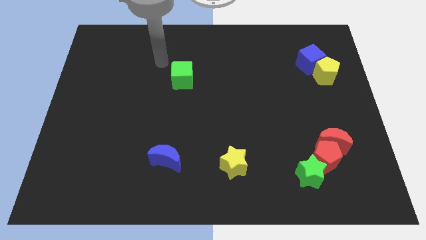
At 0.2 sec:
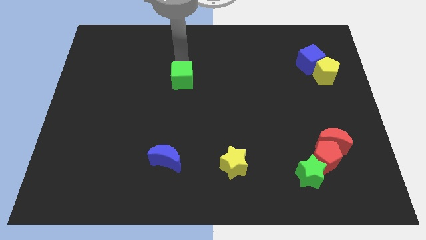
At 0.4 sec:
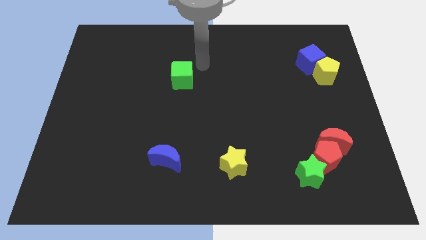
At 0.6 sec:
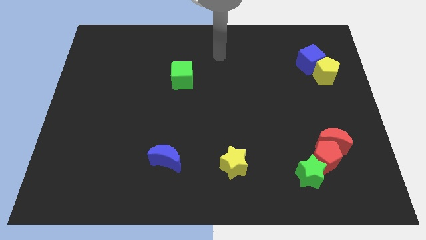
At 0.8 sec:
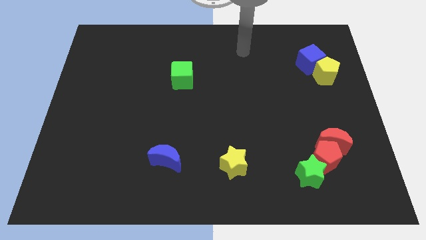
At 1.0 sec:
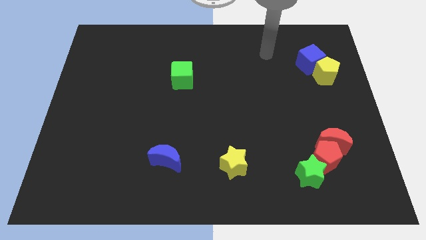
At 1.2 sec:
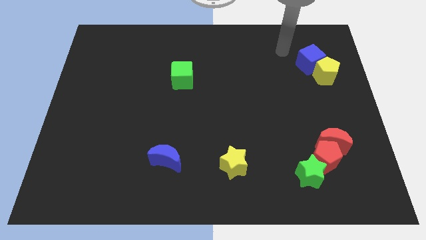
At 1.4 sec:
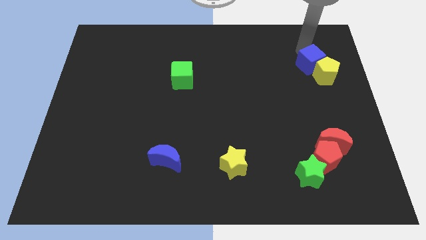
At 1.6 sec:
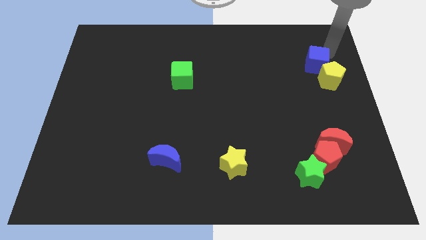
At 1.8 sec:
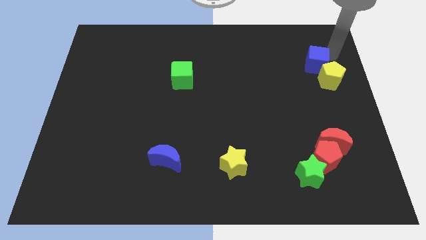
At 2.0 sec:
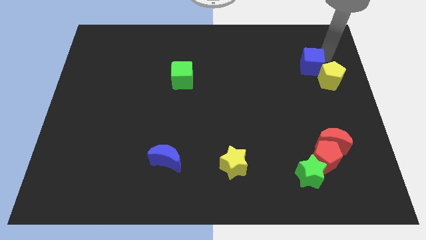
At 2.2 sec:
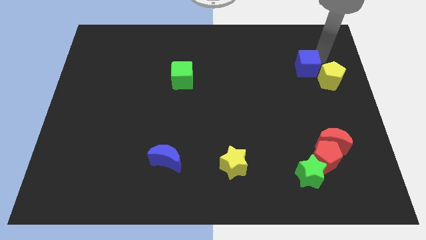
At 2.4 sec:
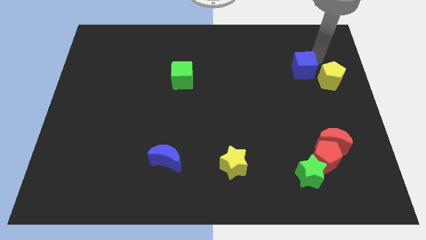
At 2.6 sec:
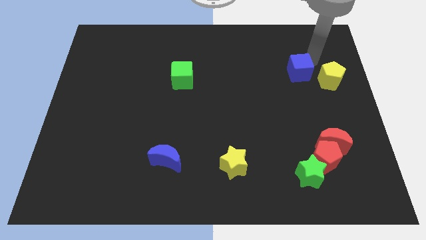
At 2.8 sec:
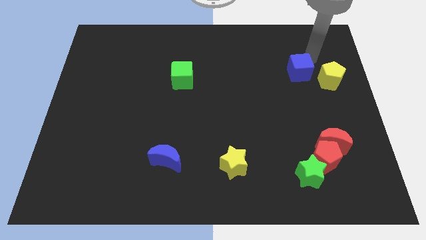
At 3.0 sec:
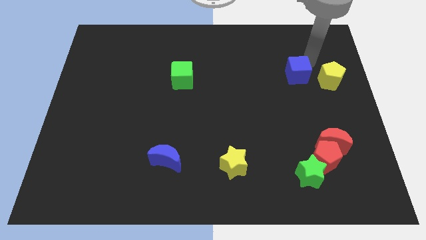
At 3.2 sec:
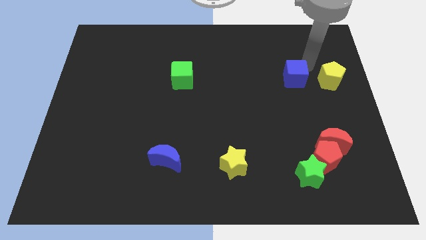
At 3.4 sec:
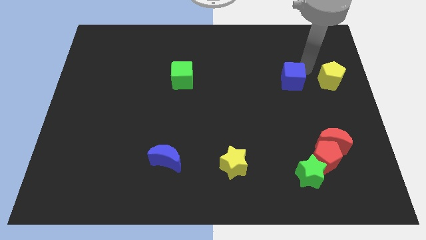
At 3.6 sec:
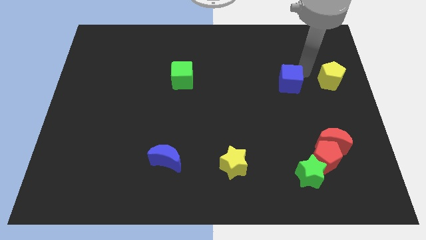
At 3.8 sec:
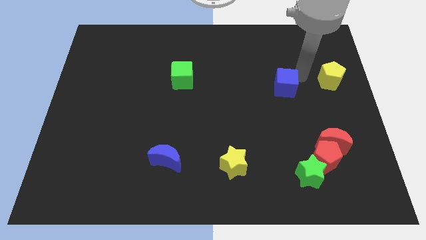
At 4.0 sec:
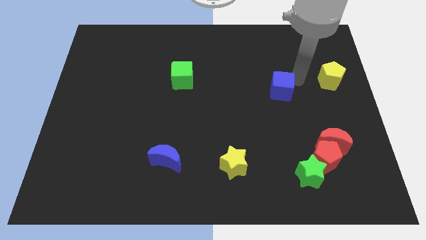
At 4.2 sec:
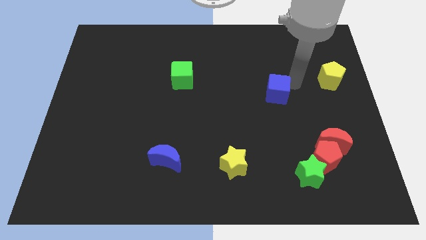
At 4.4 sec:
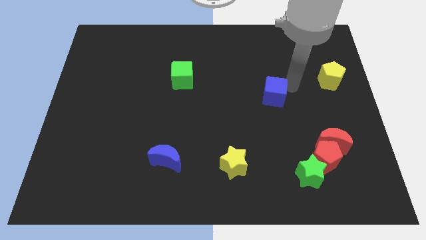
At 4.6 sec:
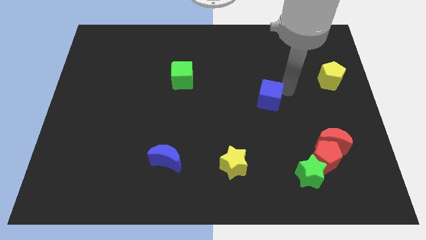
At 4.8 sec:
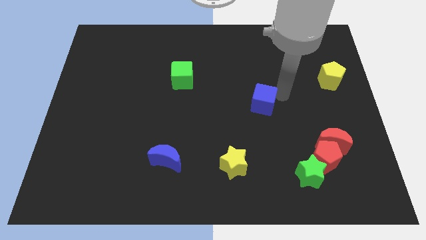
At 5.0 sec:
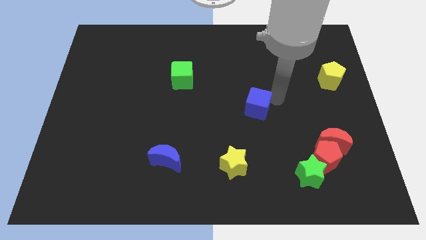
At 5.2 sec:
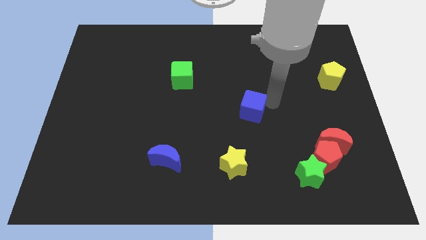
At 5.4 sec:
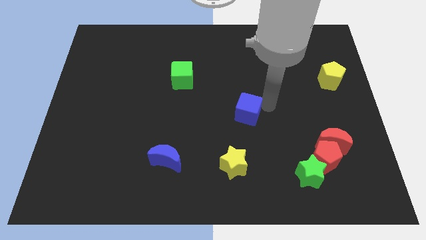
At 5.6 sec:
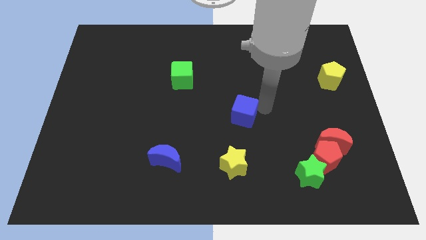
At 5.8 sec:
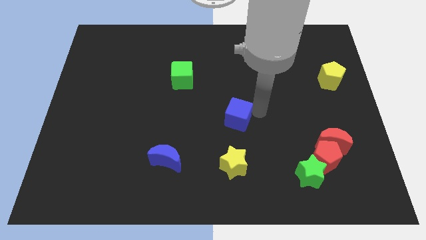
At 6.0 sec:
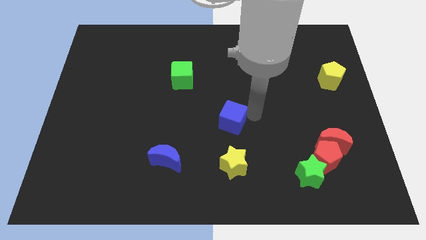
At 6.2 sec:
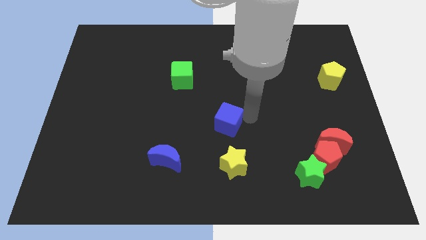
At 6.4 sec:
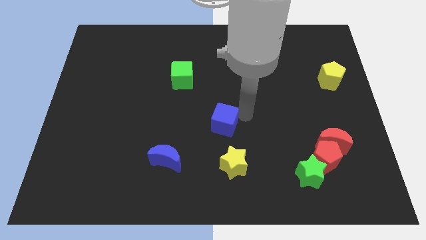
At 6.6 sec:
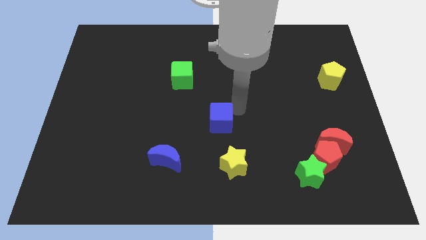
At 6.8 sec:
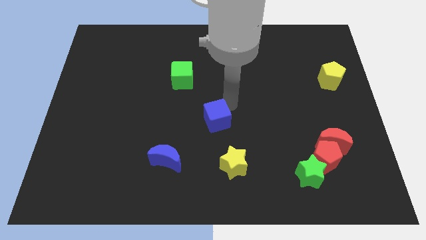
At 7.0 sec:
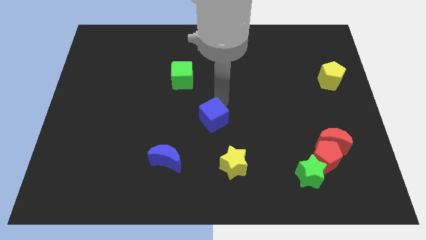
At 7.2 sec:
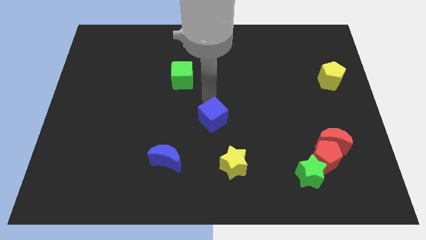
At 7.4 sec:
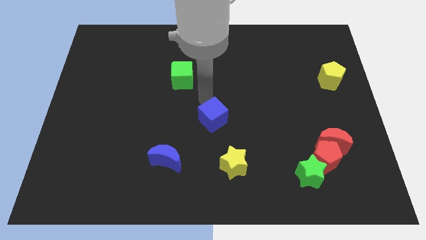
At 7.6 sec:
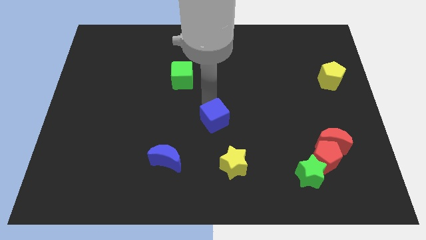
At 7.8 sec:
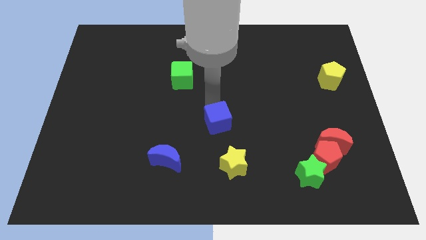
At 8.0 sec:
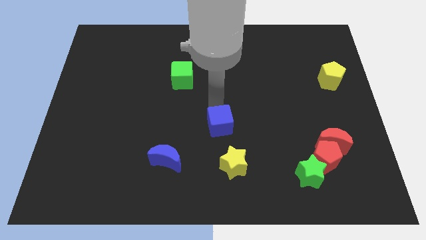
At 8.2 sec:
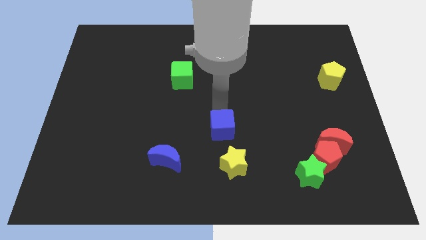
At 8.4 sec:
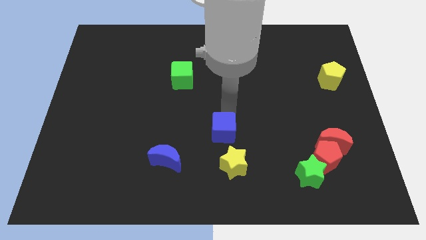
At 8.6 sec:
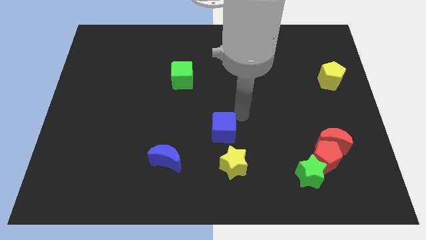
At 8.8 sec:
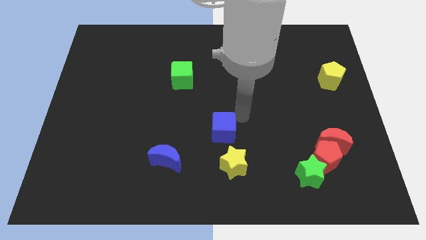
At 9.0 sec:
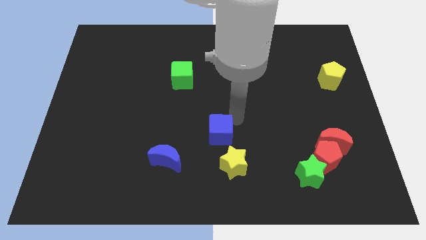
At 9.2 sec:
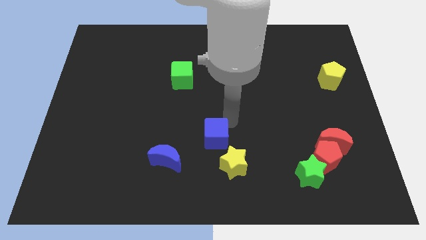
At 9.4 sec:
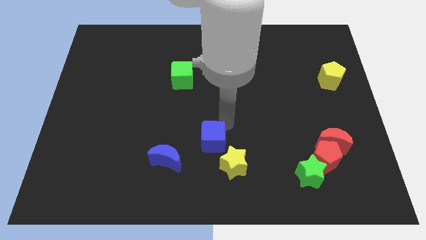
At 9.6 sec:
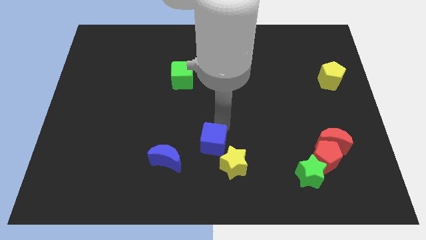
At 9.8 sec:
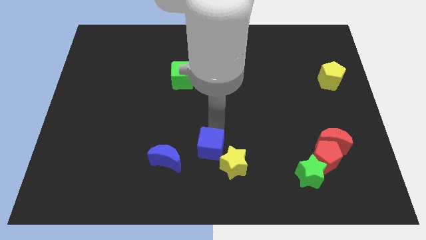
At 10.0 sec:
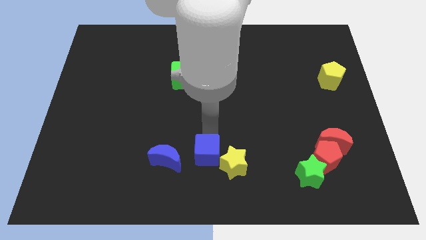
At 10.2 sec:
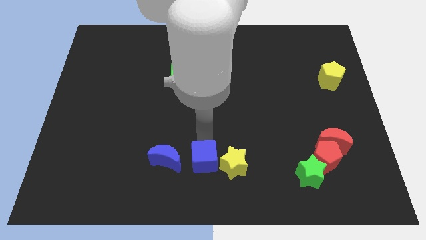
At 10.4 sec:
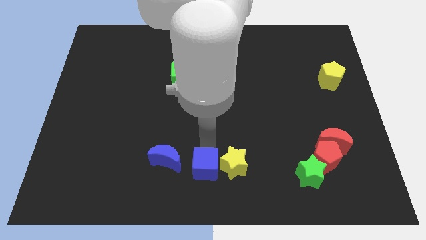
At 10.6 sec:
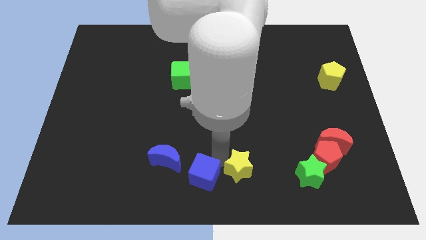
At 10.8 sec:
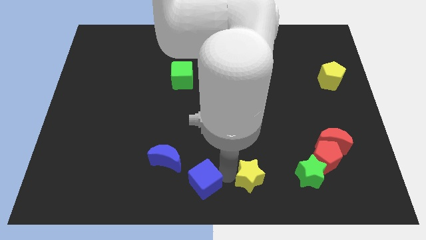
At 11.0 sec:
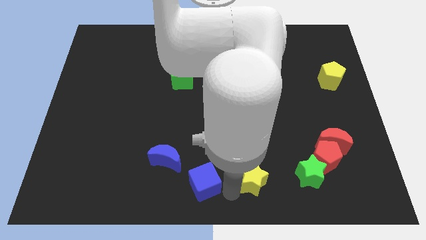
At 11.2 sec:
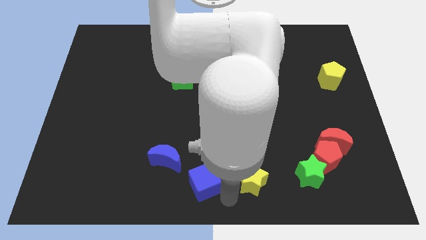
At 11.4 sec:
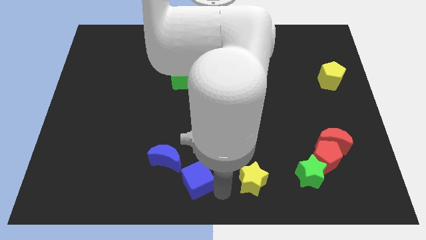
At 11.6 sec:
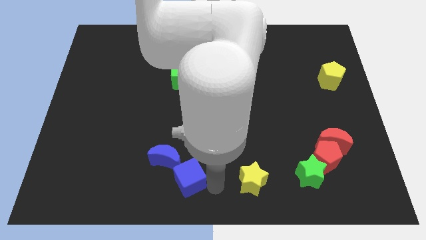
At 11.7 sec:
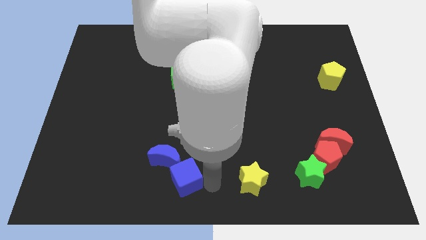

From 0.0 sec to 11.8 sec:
move the blue cube to the blue moon

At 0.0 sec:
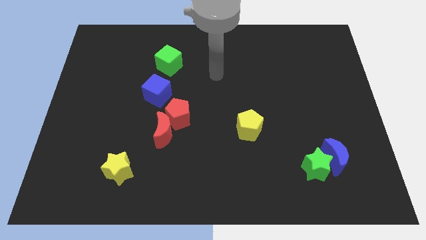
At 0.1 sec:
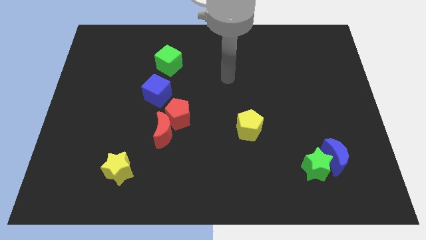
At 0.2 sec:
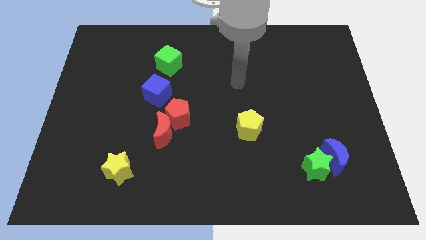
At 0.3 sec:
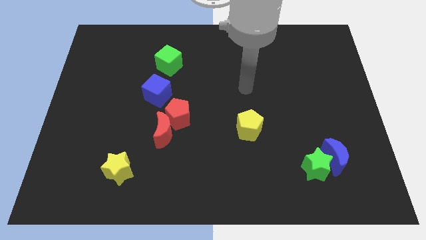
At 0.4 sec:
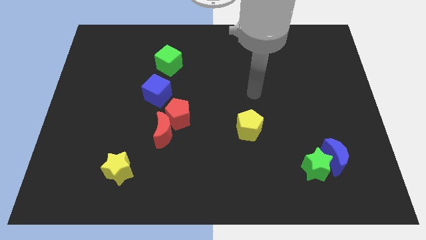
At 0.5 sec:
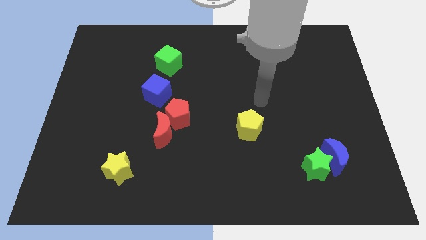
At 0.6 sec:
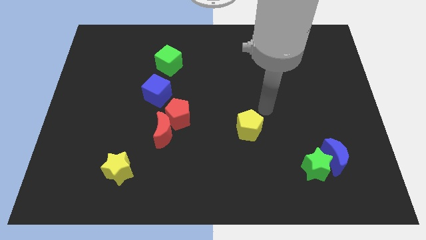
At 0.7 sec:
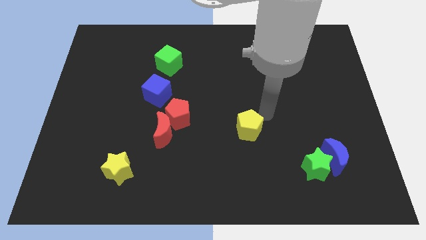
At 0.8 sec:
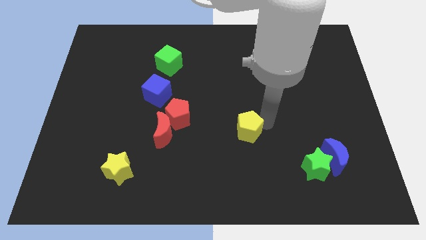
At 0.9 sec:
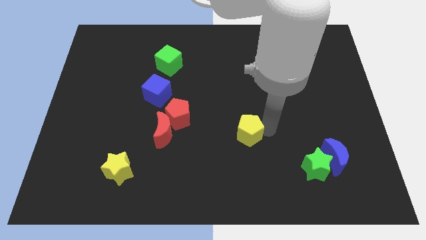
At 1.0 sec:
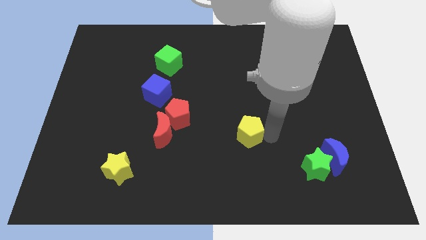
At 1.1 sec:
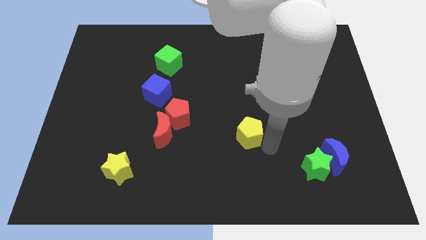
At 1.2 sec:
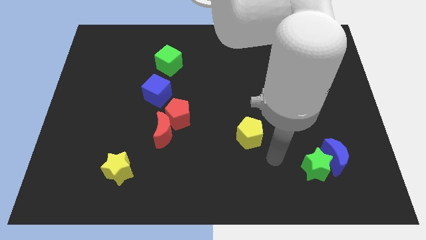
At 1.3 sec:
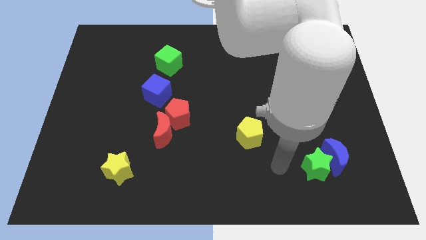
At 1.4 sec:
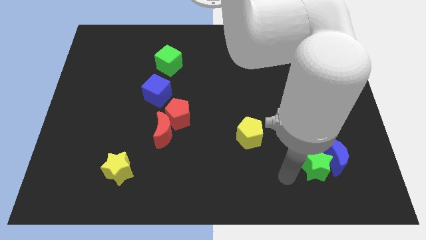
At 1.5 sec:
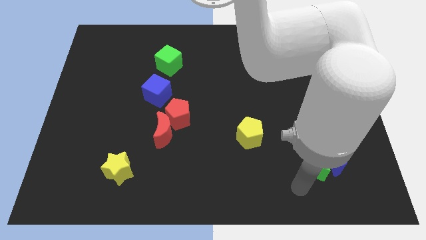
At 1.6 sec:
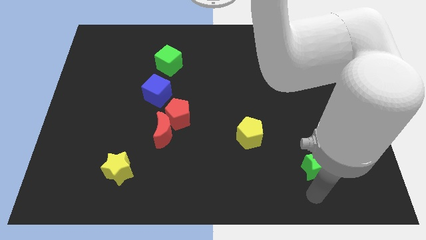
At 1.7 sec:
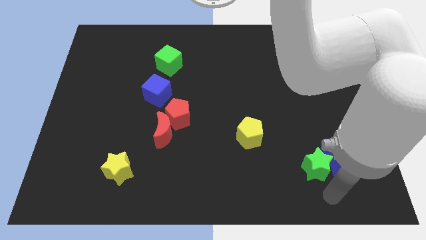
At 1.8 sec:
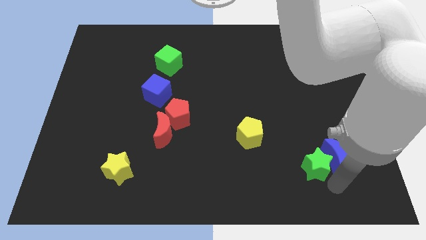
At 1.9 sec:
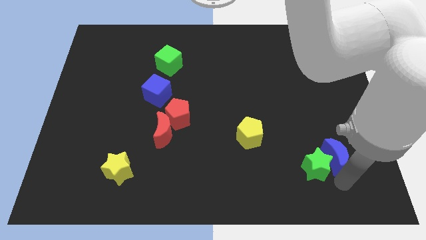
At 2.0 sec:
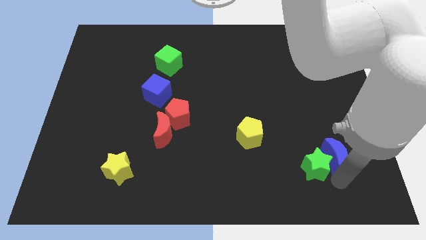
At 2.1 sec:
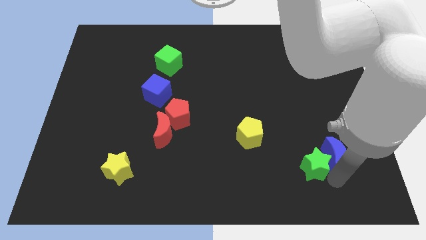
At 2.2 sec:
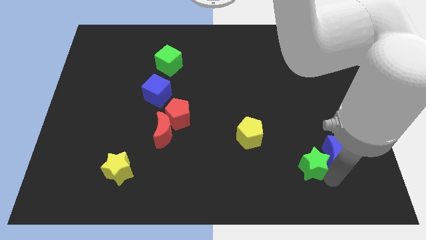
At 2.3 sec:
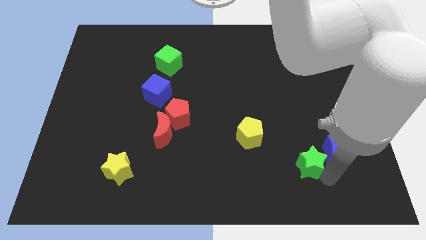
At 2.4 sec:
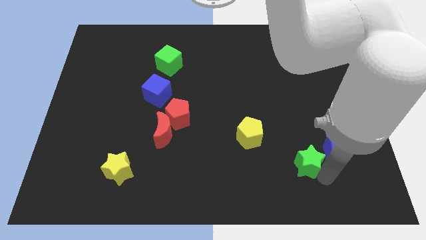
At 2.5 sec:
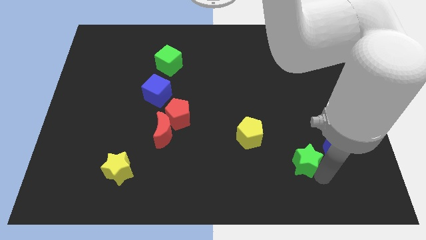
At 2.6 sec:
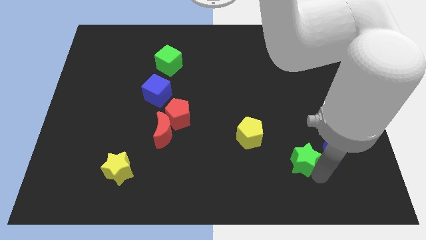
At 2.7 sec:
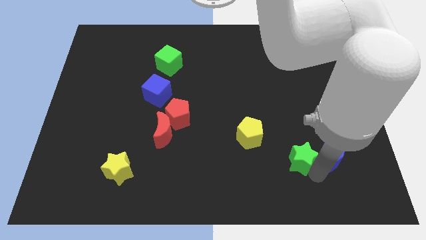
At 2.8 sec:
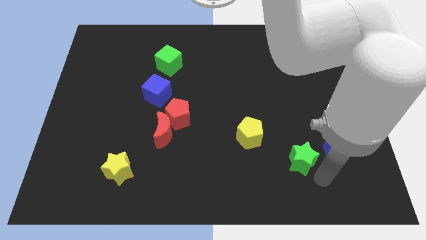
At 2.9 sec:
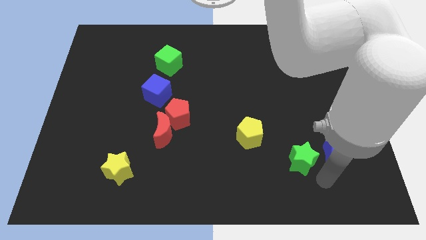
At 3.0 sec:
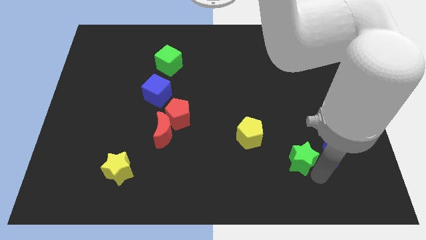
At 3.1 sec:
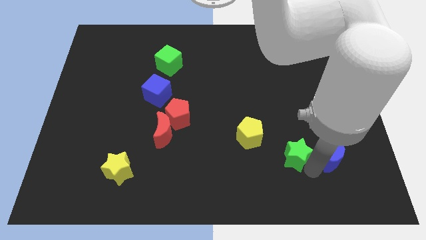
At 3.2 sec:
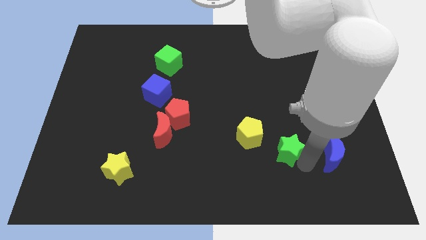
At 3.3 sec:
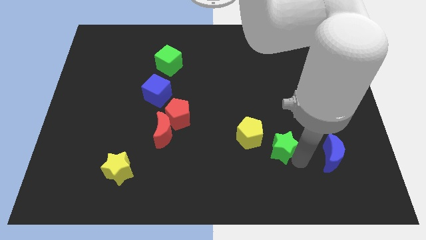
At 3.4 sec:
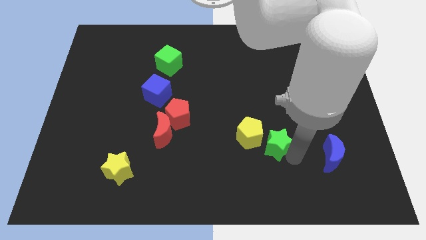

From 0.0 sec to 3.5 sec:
push the green star towards the yellow pentagon
